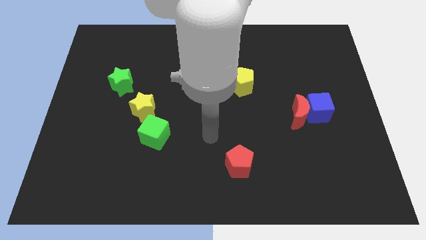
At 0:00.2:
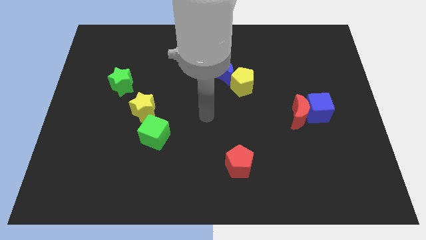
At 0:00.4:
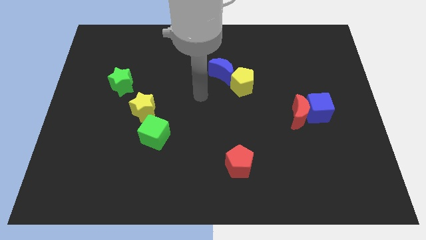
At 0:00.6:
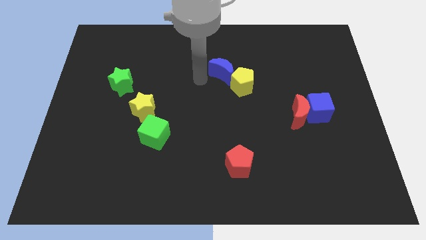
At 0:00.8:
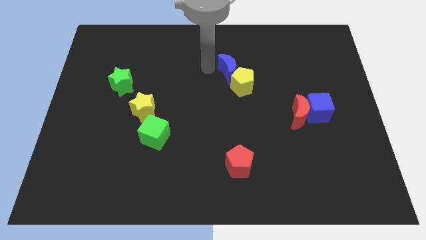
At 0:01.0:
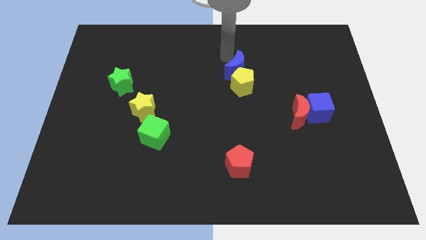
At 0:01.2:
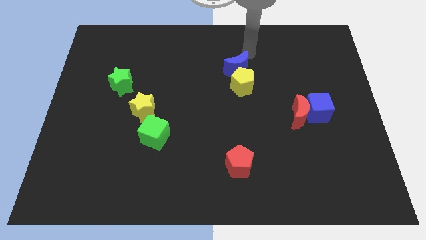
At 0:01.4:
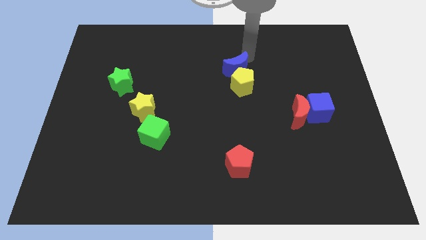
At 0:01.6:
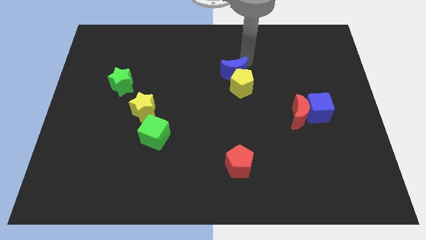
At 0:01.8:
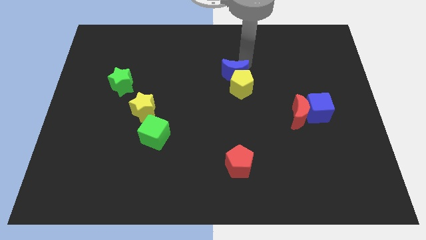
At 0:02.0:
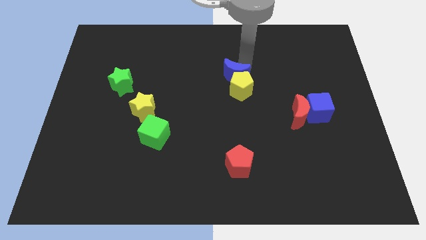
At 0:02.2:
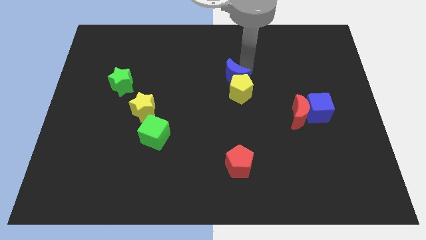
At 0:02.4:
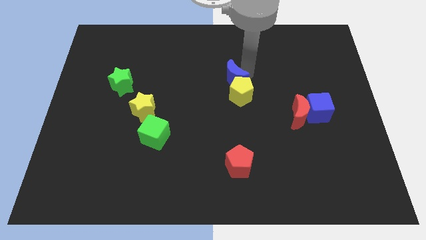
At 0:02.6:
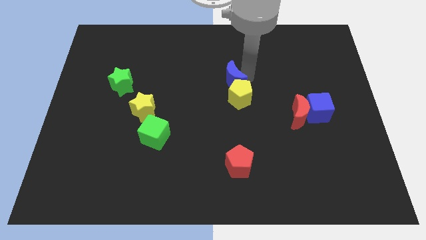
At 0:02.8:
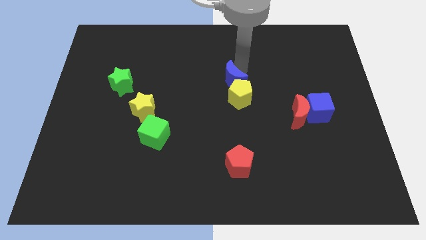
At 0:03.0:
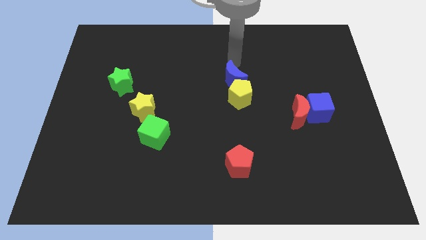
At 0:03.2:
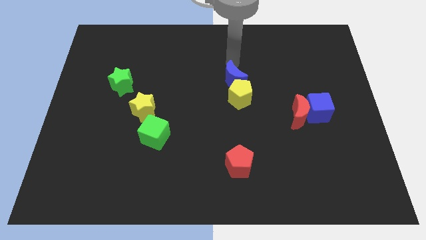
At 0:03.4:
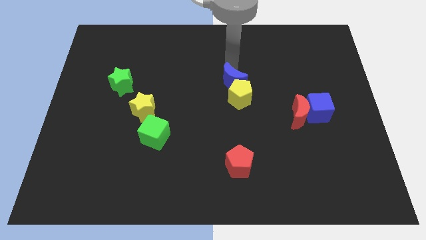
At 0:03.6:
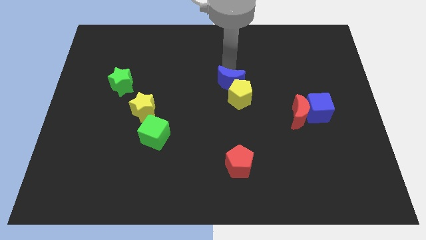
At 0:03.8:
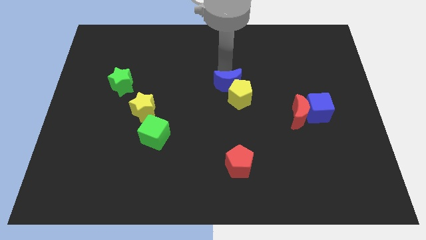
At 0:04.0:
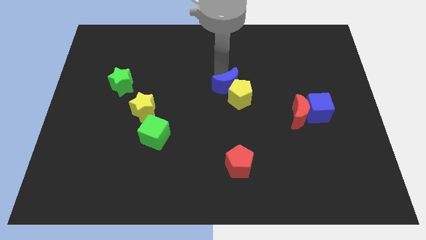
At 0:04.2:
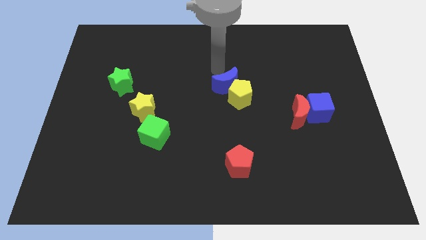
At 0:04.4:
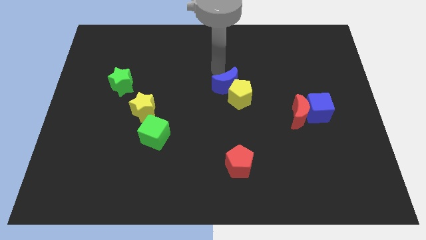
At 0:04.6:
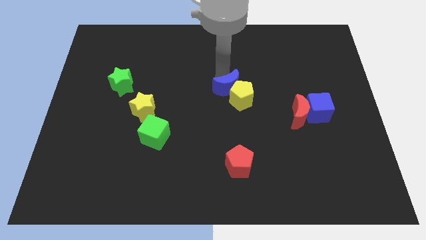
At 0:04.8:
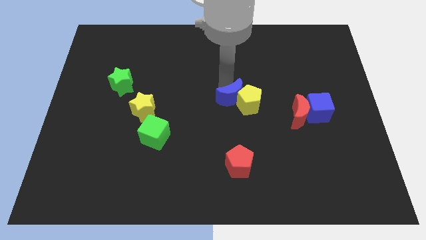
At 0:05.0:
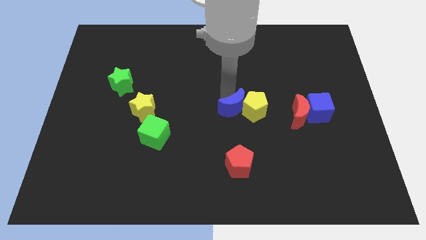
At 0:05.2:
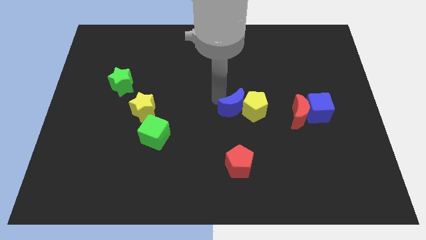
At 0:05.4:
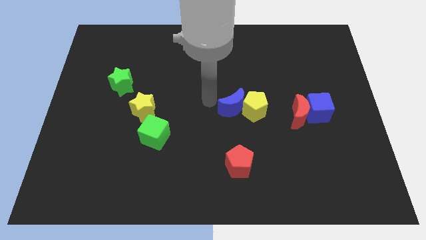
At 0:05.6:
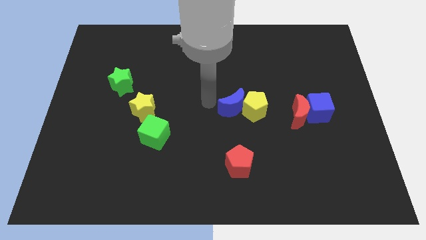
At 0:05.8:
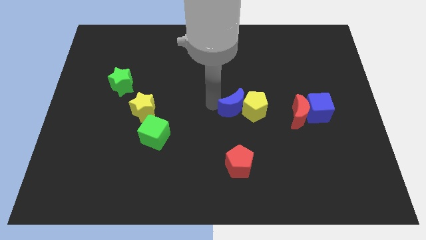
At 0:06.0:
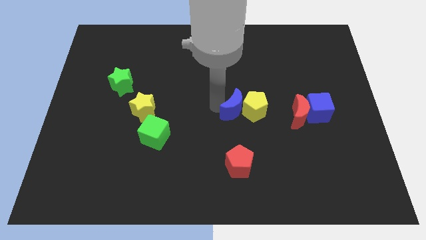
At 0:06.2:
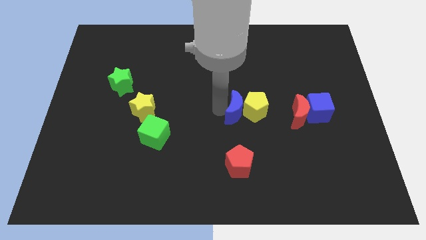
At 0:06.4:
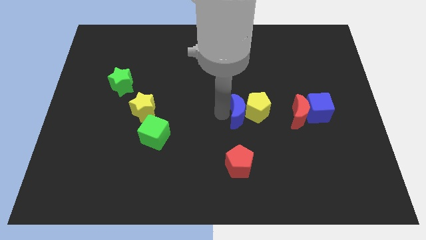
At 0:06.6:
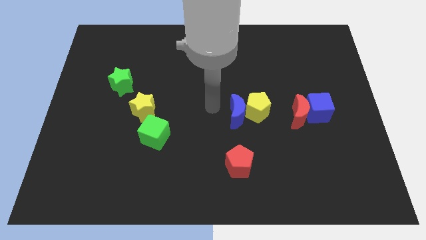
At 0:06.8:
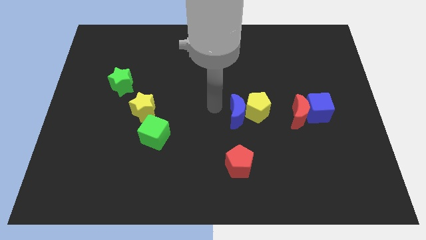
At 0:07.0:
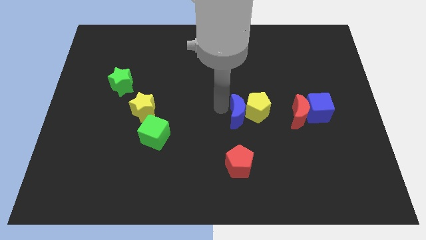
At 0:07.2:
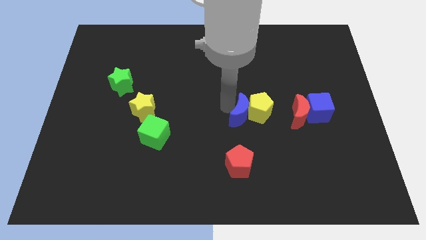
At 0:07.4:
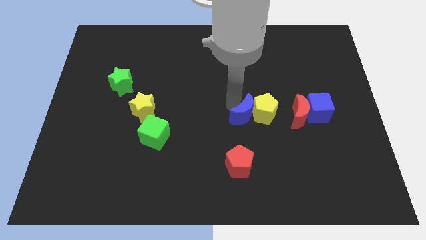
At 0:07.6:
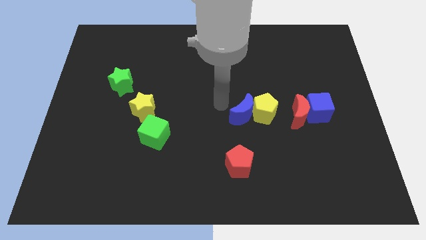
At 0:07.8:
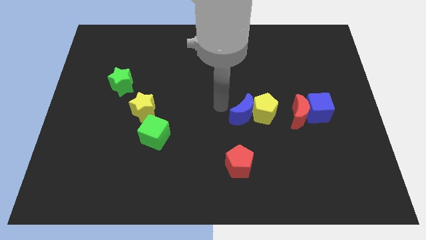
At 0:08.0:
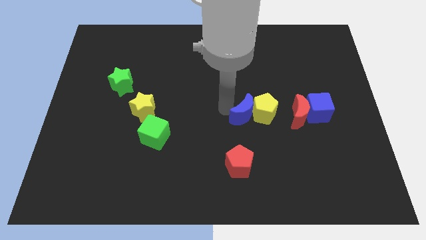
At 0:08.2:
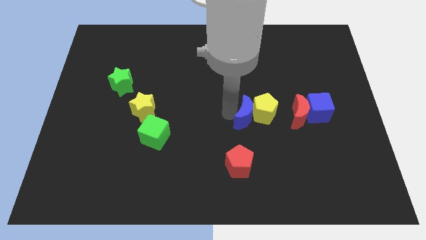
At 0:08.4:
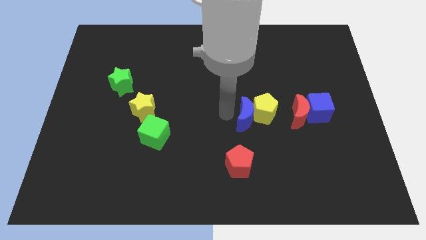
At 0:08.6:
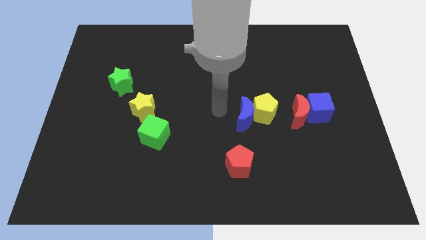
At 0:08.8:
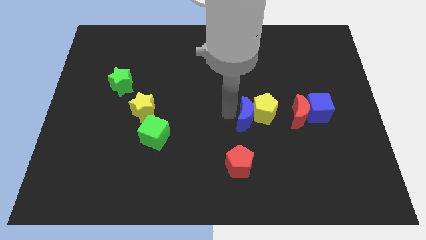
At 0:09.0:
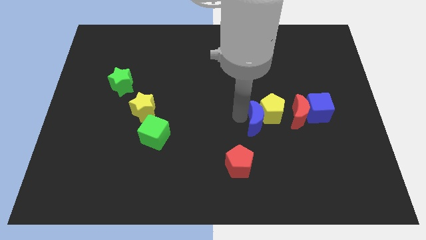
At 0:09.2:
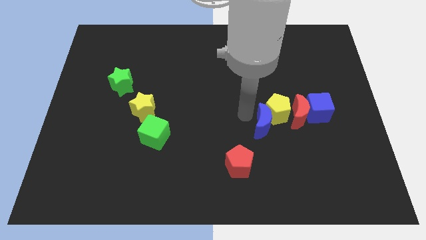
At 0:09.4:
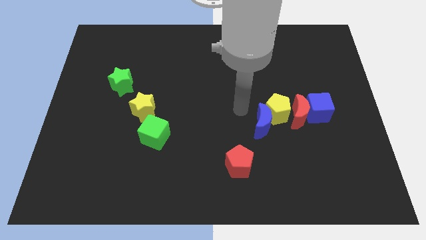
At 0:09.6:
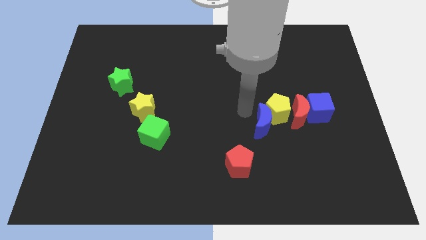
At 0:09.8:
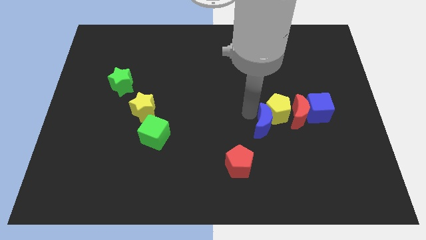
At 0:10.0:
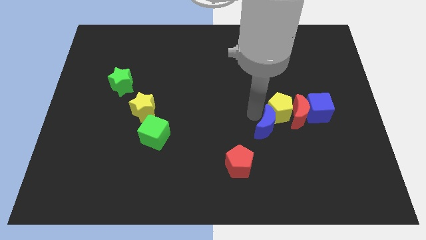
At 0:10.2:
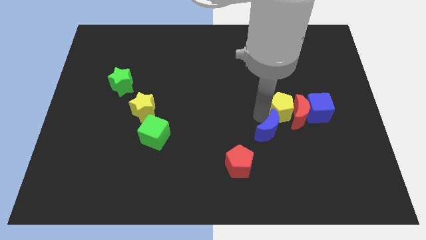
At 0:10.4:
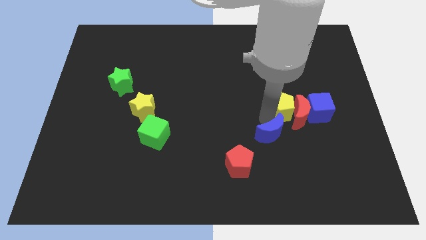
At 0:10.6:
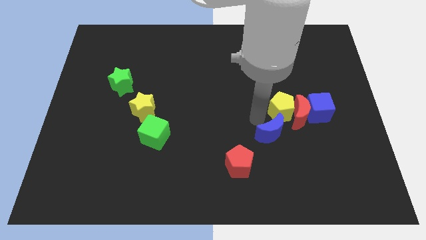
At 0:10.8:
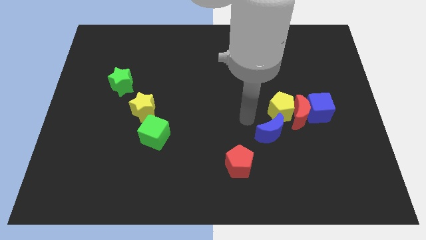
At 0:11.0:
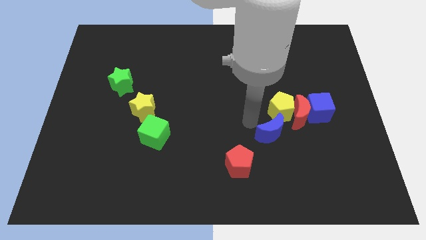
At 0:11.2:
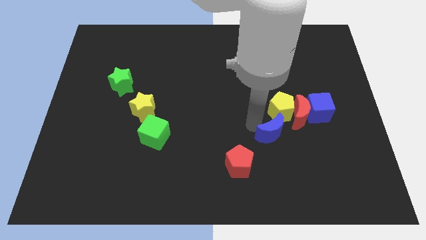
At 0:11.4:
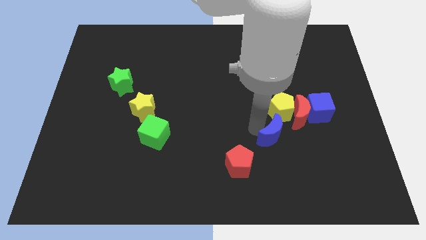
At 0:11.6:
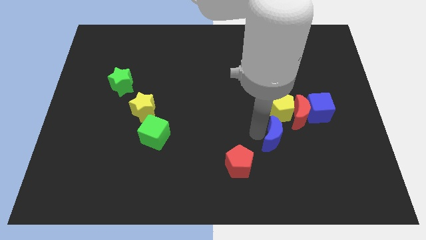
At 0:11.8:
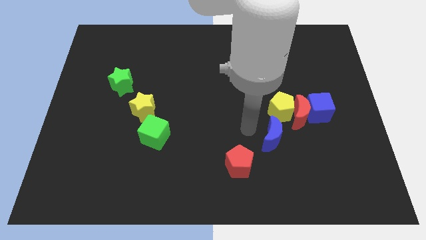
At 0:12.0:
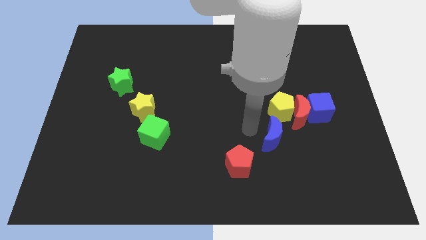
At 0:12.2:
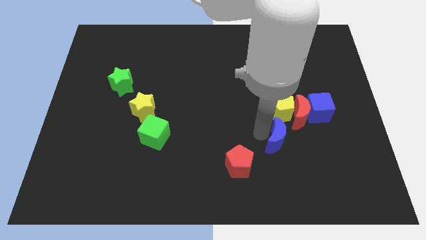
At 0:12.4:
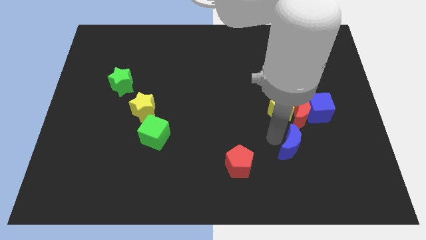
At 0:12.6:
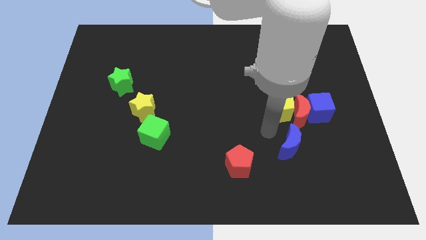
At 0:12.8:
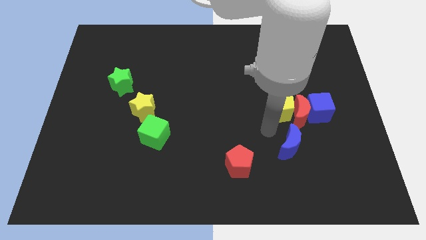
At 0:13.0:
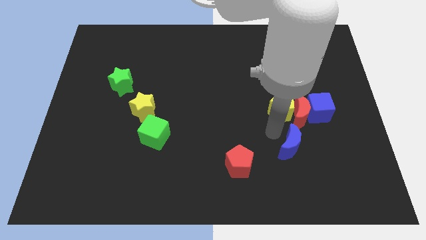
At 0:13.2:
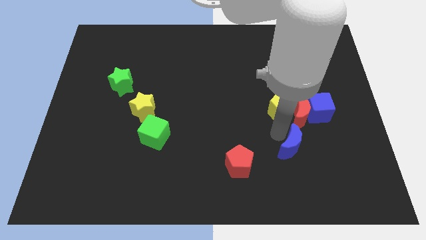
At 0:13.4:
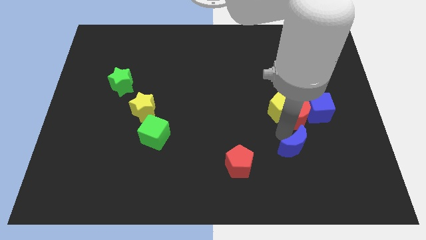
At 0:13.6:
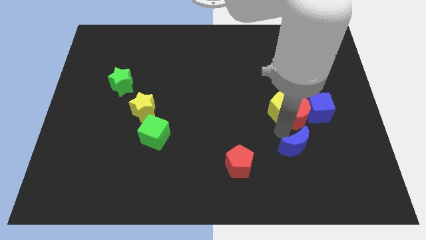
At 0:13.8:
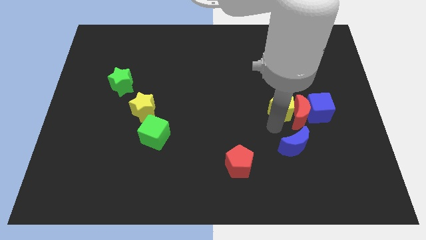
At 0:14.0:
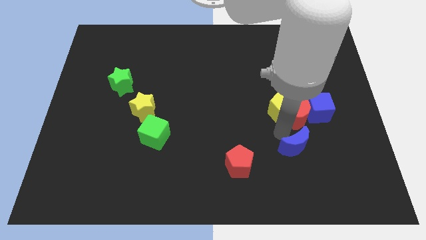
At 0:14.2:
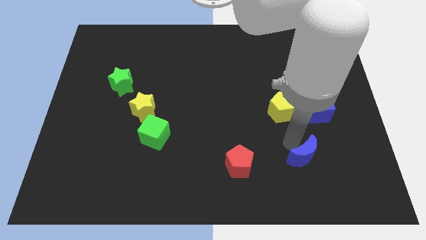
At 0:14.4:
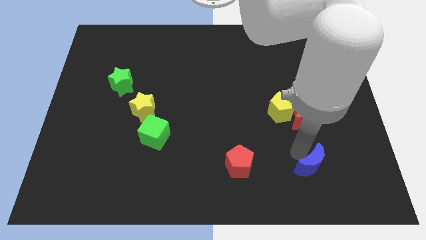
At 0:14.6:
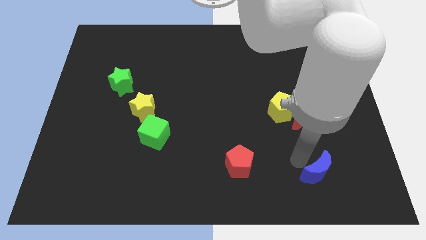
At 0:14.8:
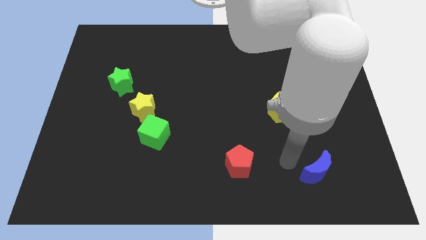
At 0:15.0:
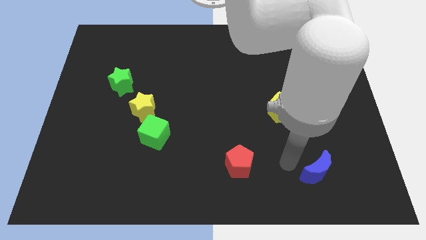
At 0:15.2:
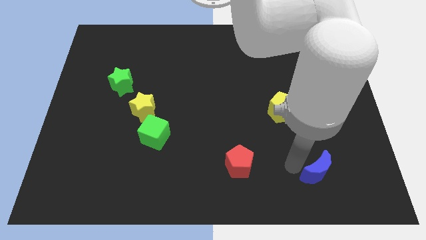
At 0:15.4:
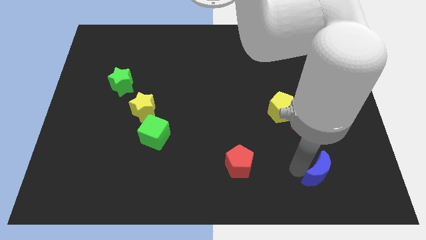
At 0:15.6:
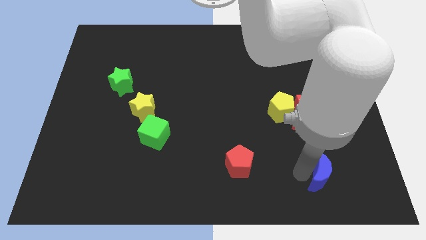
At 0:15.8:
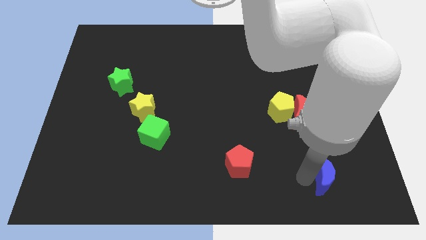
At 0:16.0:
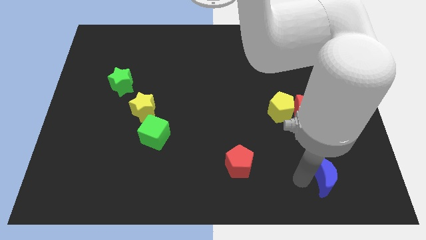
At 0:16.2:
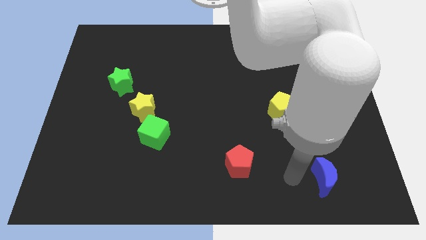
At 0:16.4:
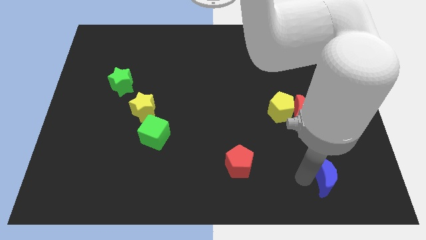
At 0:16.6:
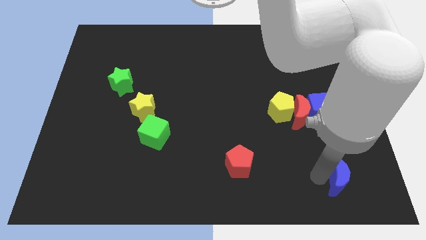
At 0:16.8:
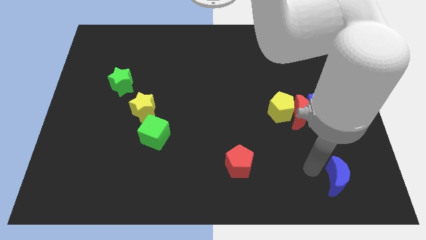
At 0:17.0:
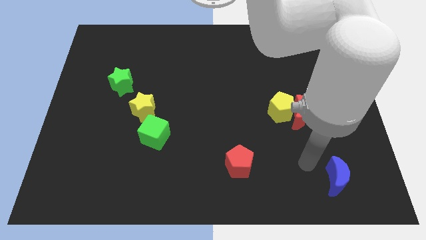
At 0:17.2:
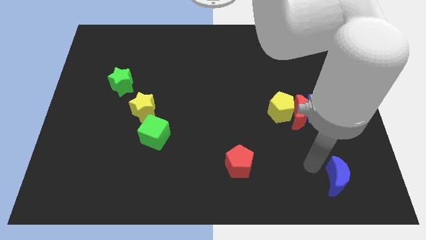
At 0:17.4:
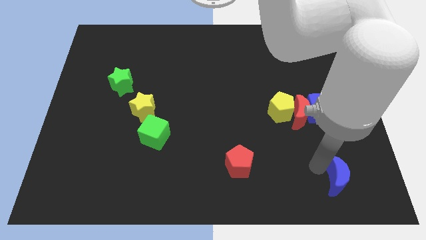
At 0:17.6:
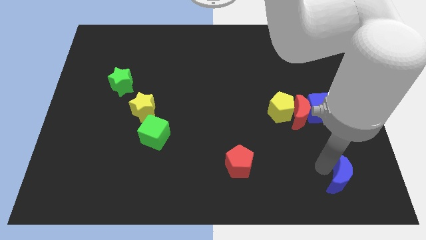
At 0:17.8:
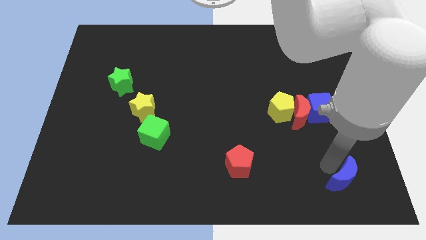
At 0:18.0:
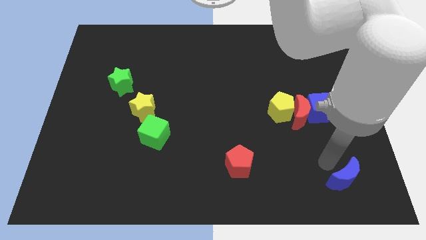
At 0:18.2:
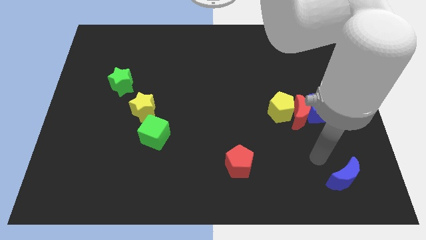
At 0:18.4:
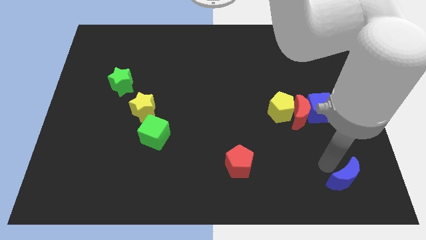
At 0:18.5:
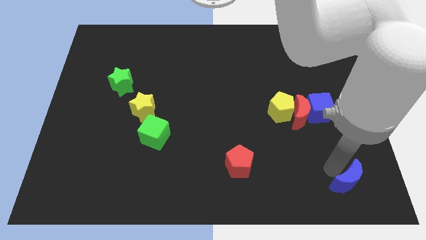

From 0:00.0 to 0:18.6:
put the blue moon to the bottom right corner
